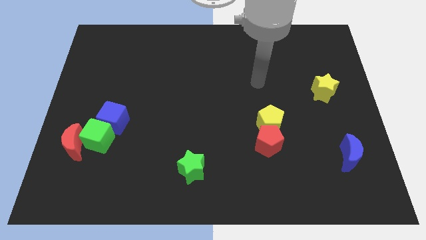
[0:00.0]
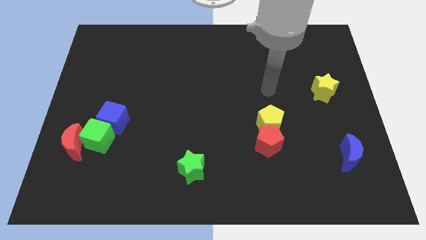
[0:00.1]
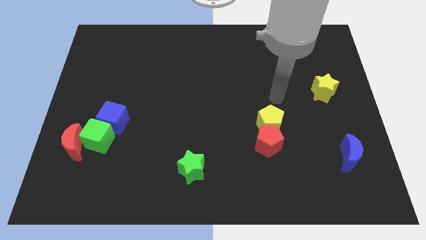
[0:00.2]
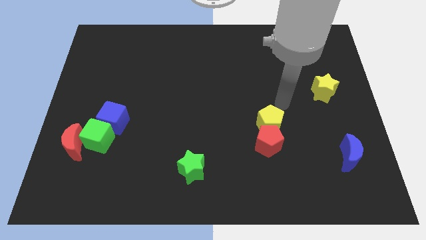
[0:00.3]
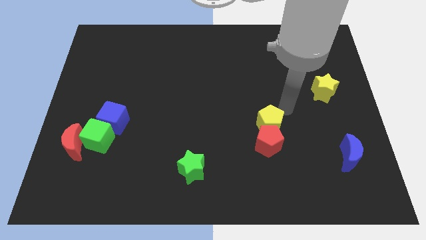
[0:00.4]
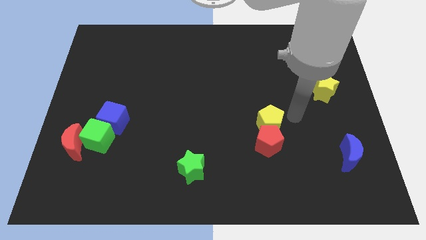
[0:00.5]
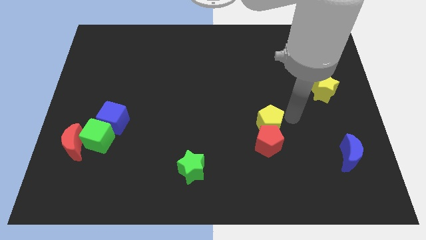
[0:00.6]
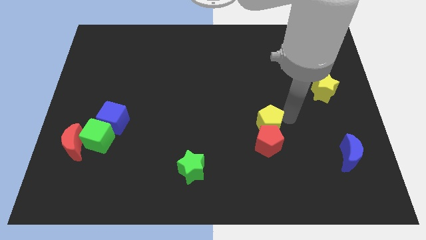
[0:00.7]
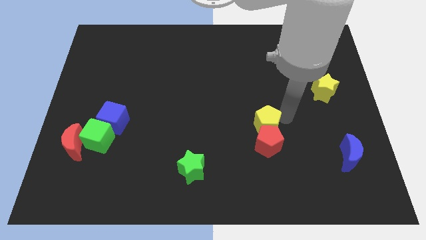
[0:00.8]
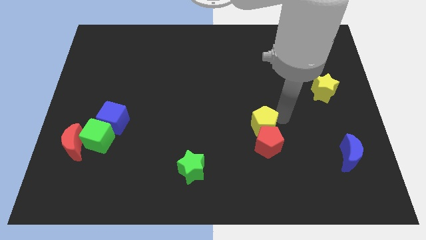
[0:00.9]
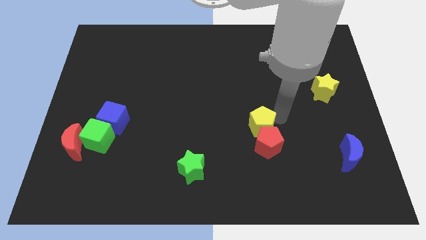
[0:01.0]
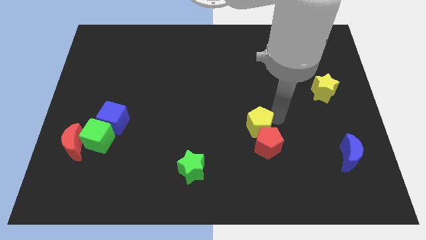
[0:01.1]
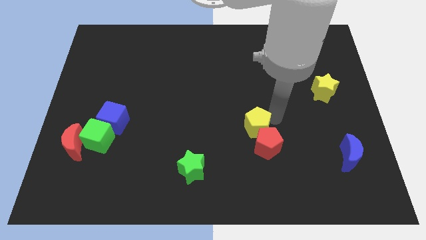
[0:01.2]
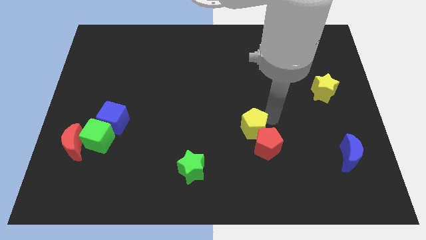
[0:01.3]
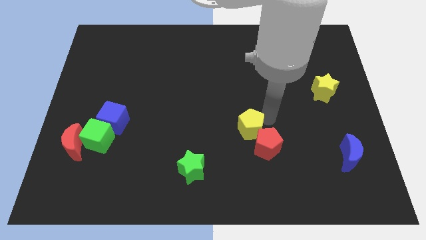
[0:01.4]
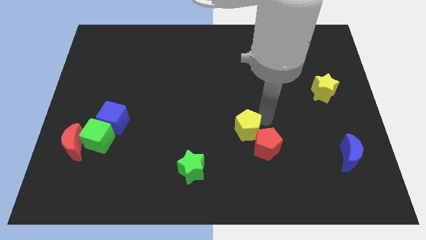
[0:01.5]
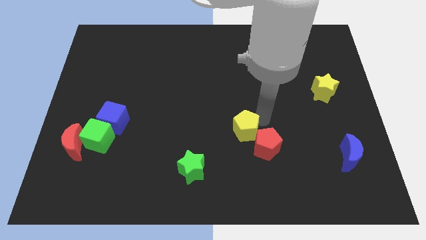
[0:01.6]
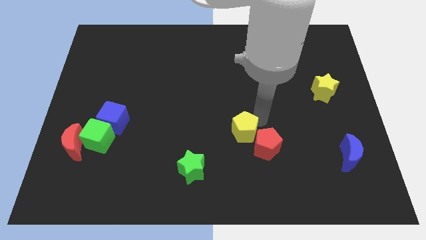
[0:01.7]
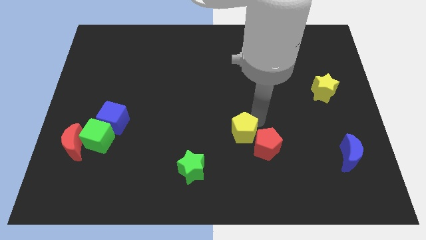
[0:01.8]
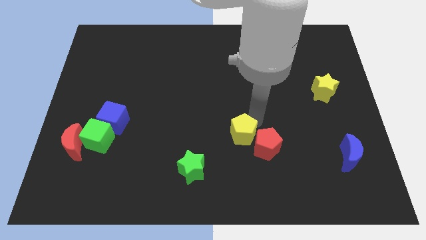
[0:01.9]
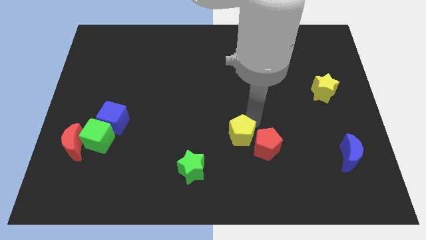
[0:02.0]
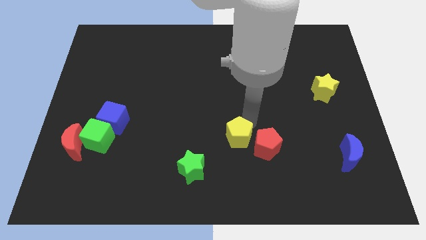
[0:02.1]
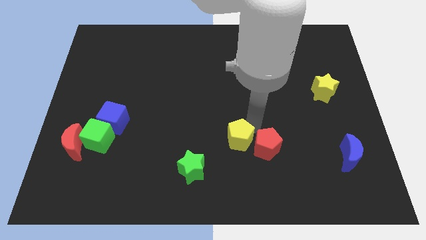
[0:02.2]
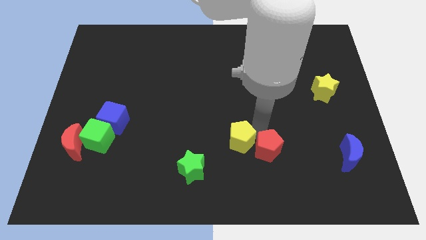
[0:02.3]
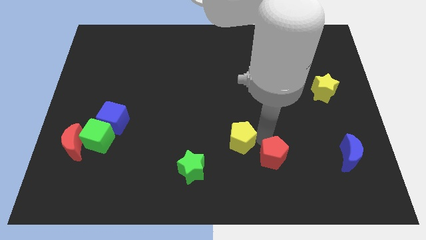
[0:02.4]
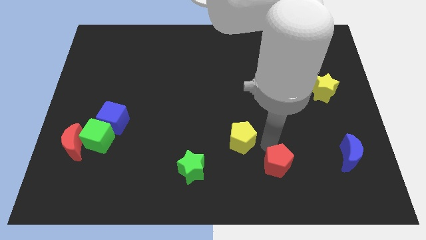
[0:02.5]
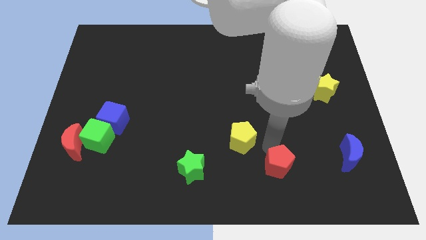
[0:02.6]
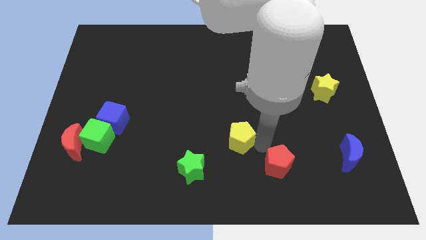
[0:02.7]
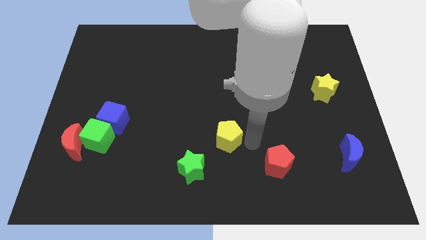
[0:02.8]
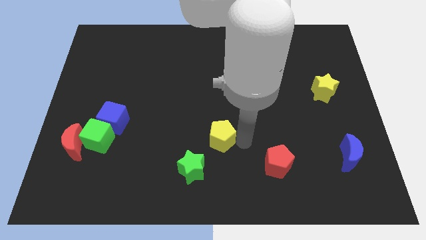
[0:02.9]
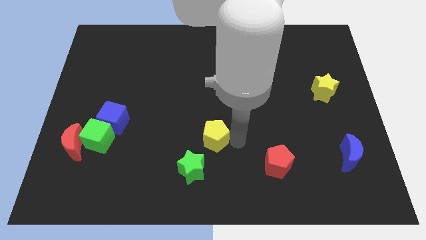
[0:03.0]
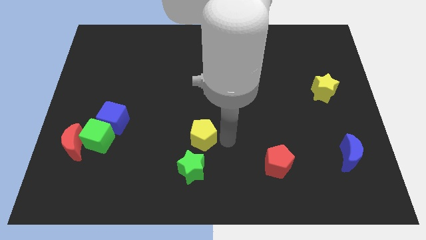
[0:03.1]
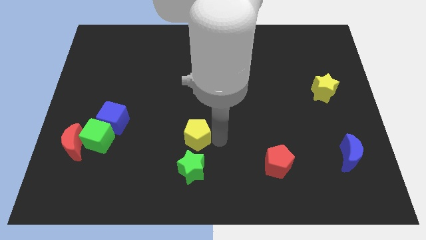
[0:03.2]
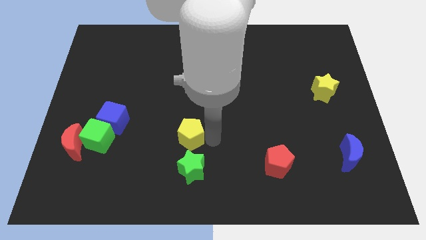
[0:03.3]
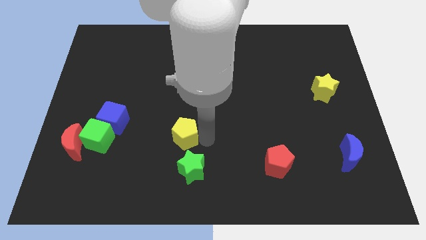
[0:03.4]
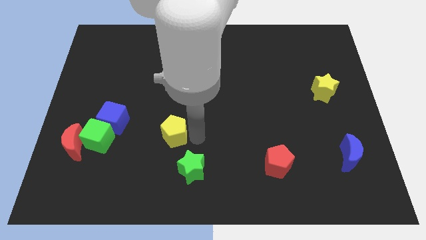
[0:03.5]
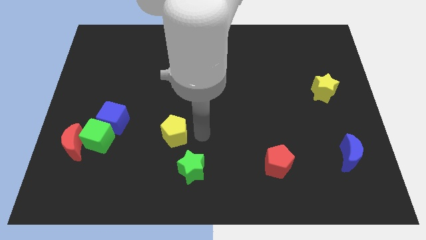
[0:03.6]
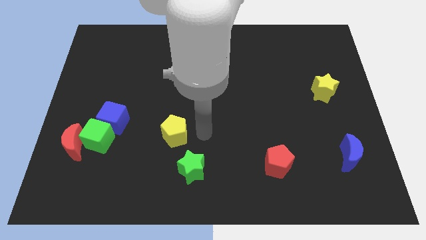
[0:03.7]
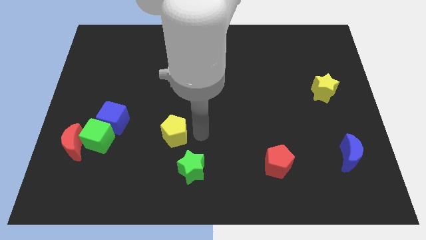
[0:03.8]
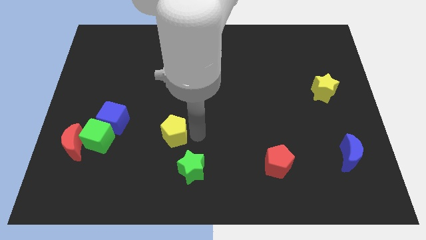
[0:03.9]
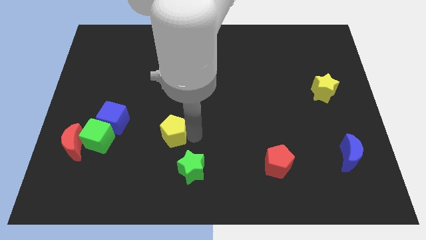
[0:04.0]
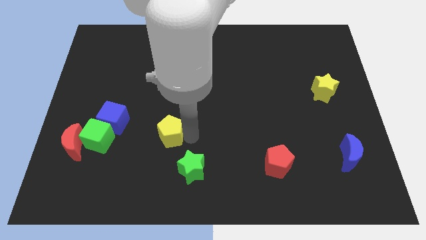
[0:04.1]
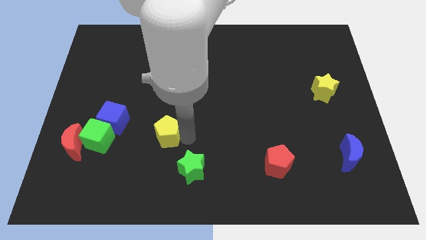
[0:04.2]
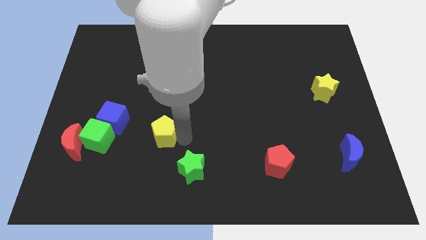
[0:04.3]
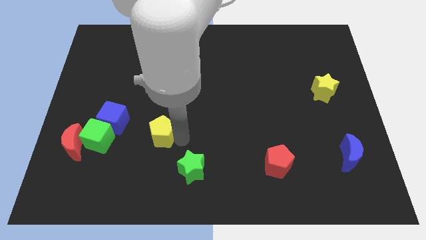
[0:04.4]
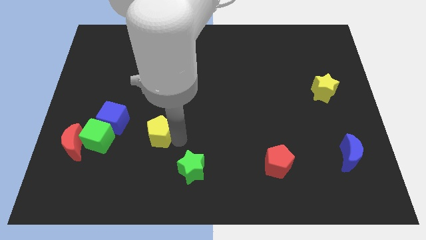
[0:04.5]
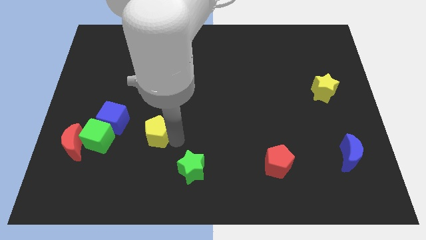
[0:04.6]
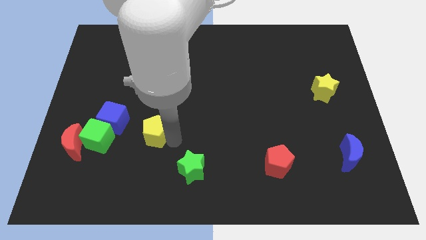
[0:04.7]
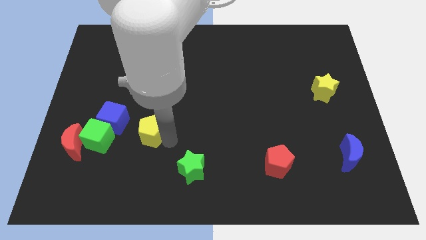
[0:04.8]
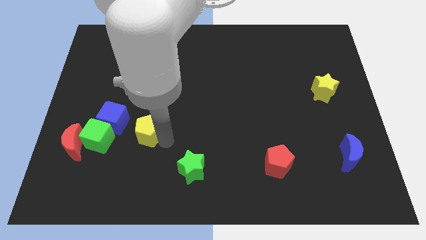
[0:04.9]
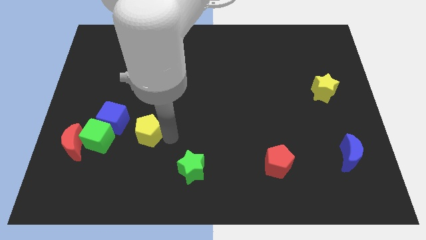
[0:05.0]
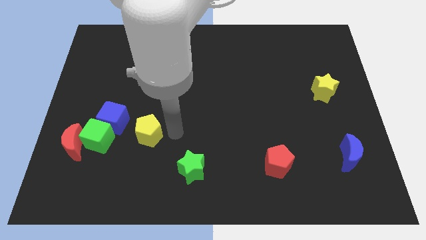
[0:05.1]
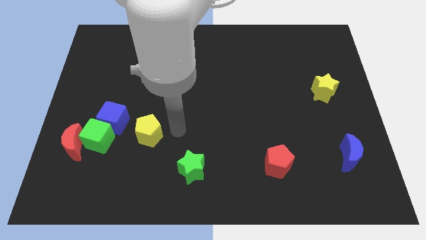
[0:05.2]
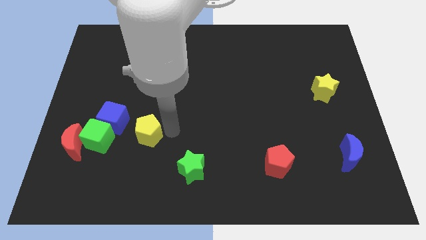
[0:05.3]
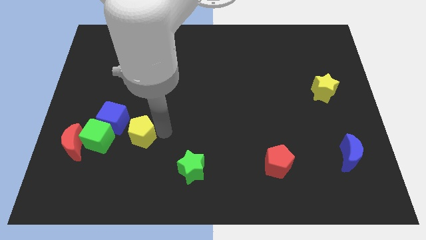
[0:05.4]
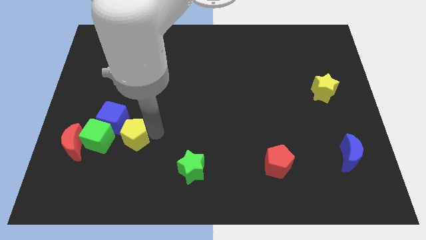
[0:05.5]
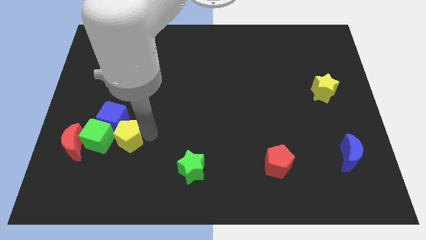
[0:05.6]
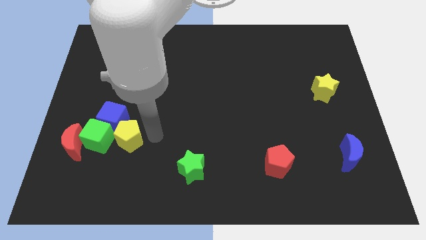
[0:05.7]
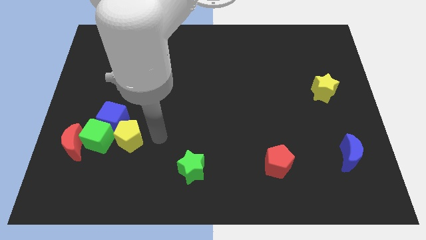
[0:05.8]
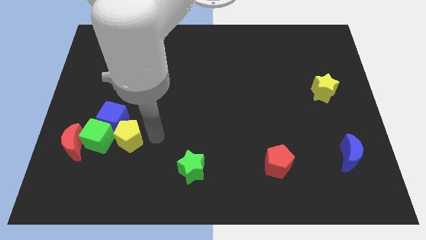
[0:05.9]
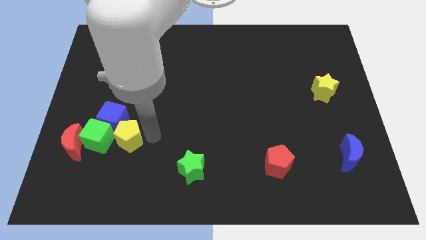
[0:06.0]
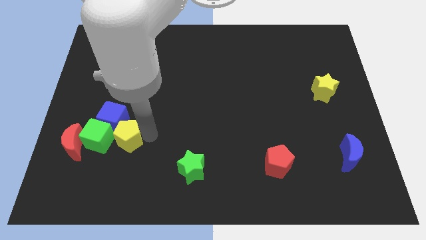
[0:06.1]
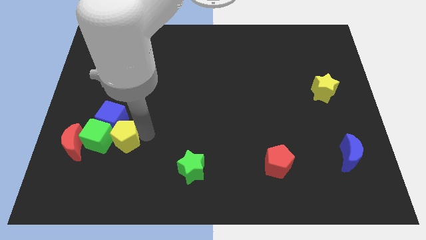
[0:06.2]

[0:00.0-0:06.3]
slide the yellow pentagon close to the green cube

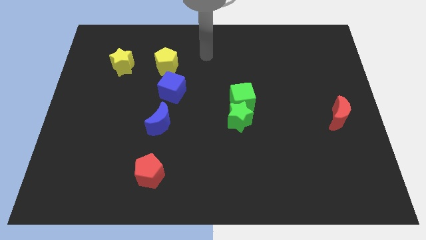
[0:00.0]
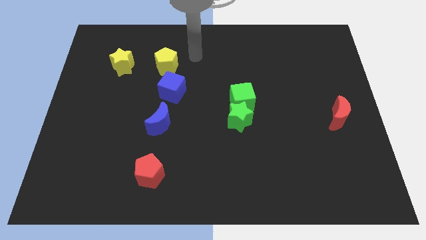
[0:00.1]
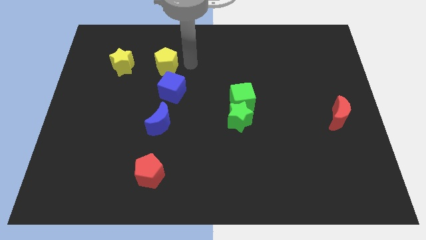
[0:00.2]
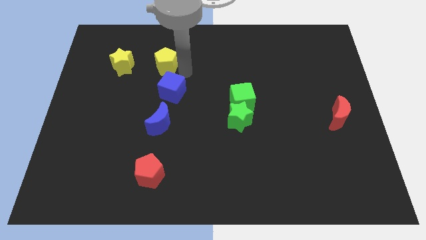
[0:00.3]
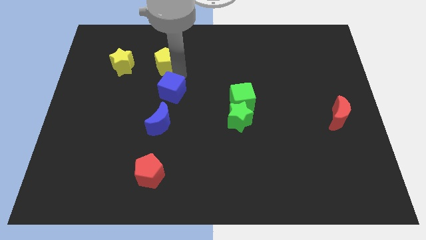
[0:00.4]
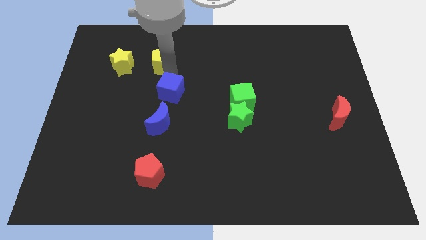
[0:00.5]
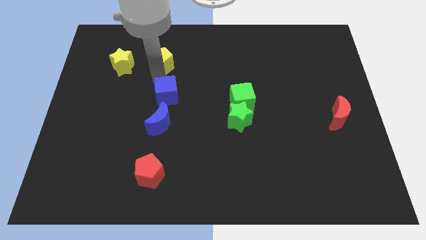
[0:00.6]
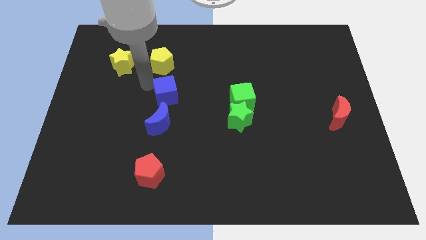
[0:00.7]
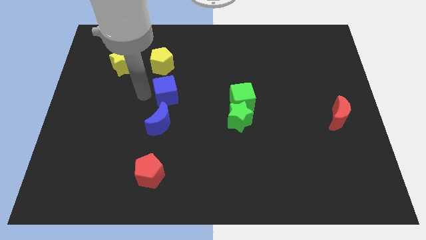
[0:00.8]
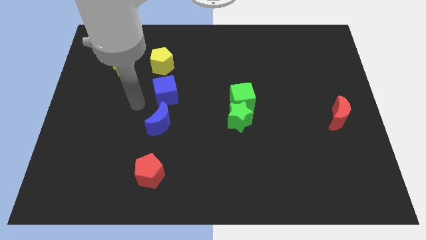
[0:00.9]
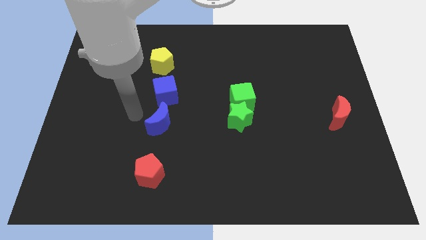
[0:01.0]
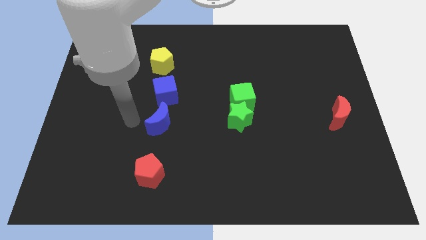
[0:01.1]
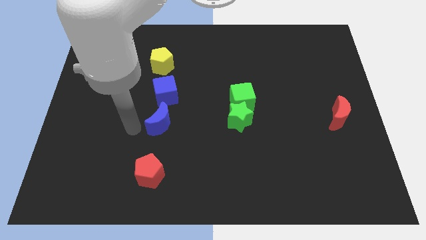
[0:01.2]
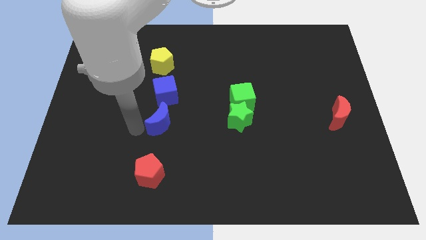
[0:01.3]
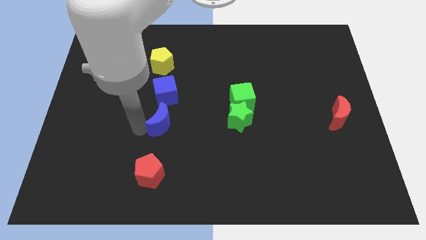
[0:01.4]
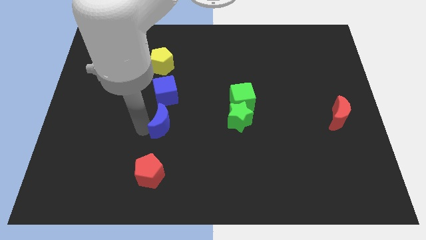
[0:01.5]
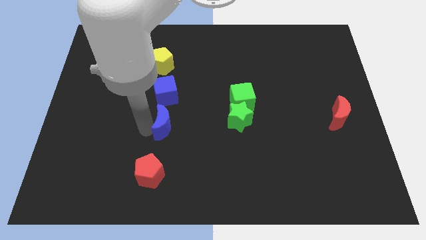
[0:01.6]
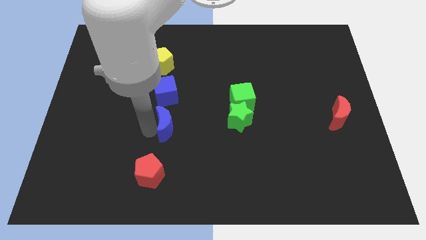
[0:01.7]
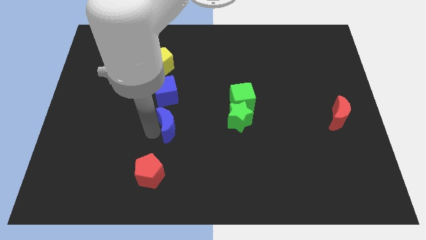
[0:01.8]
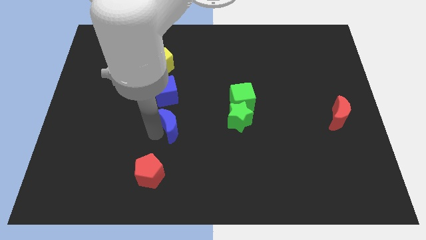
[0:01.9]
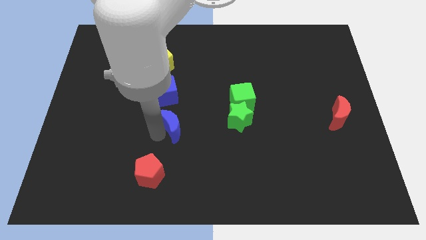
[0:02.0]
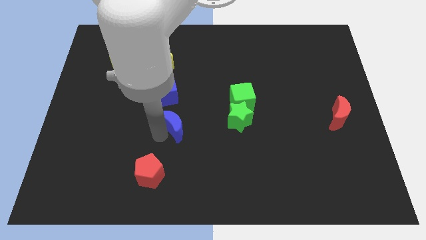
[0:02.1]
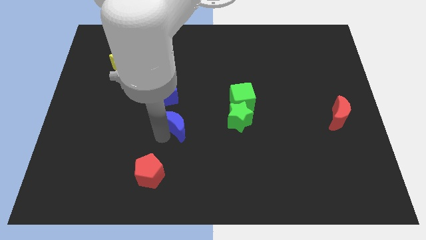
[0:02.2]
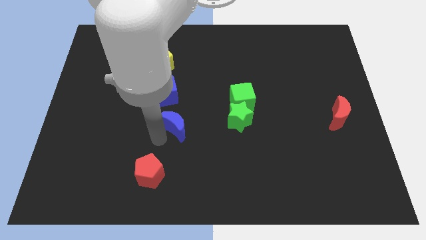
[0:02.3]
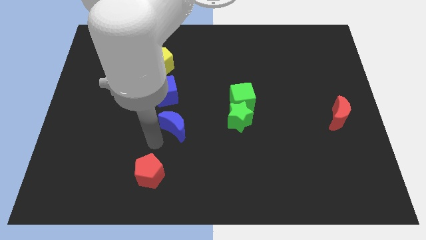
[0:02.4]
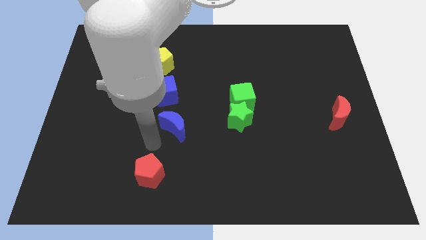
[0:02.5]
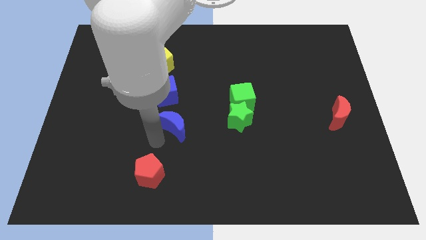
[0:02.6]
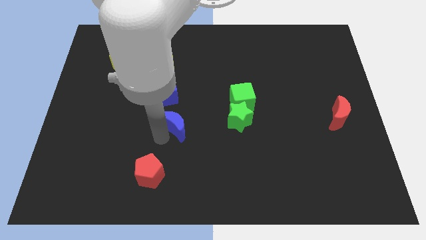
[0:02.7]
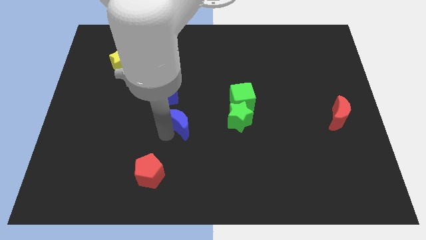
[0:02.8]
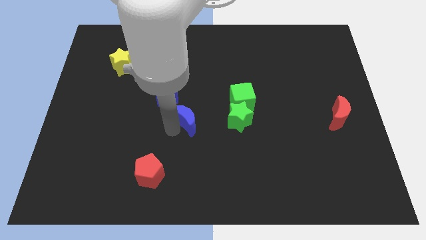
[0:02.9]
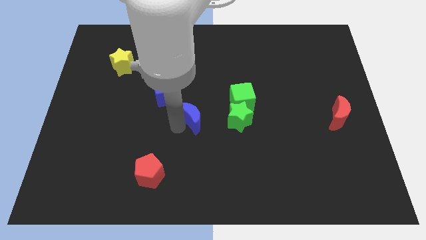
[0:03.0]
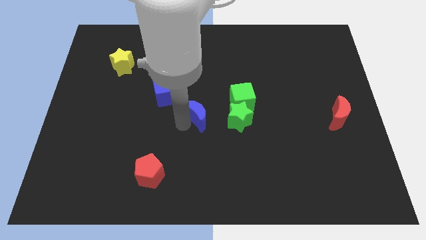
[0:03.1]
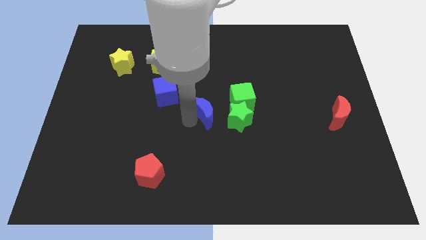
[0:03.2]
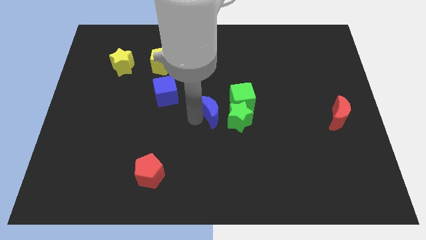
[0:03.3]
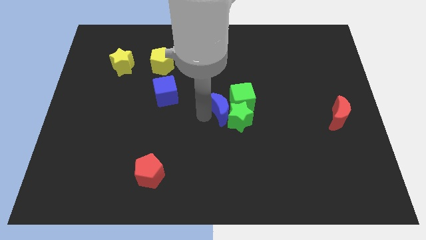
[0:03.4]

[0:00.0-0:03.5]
put the blue moon to the green cube
